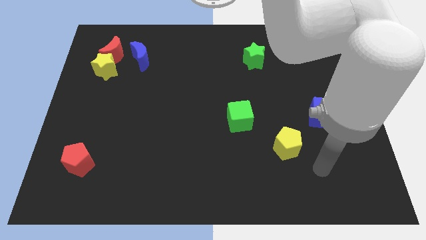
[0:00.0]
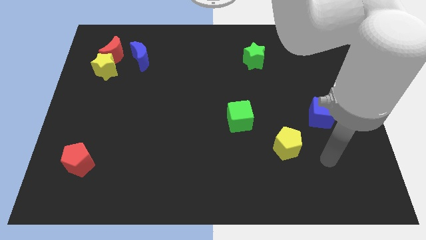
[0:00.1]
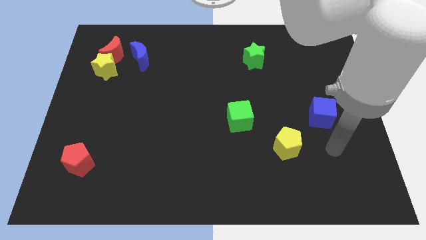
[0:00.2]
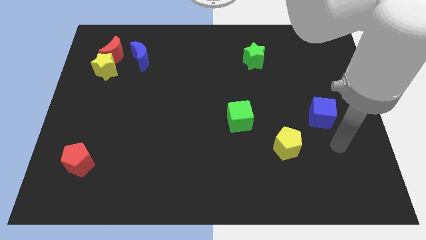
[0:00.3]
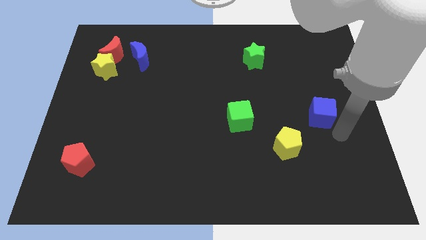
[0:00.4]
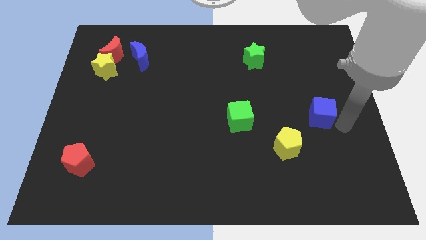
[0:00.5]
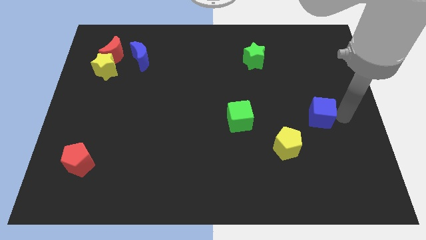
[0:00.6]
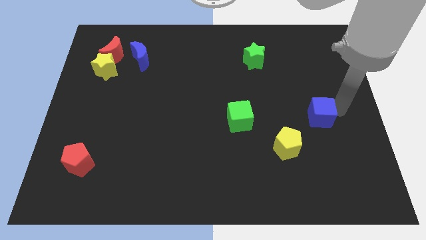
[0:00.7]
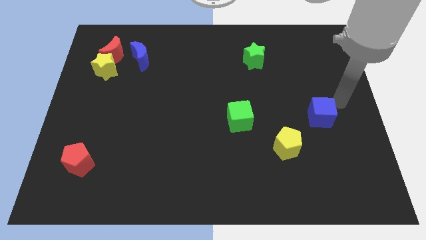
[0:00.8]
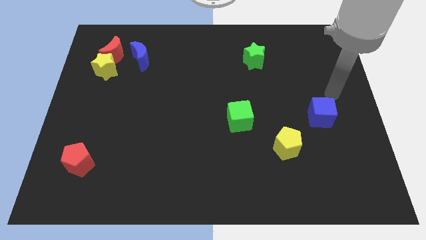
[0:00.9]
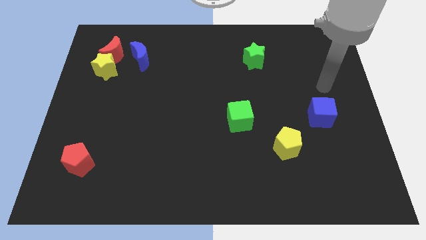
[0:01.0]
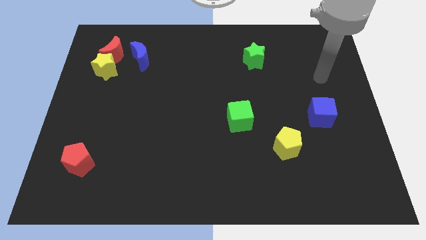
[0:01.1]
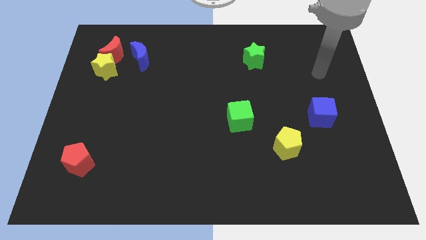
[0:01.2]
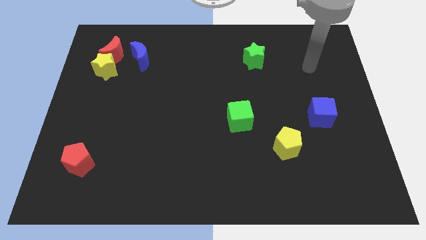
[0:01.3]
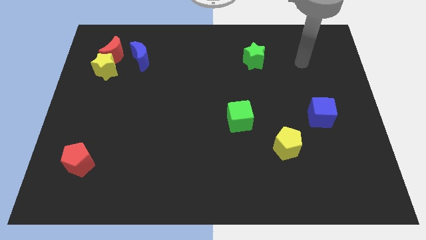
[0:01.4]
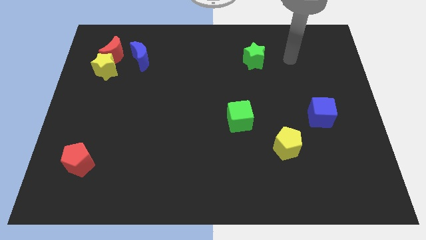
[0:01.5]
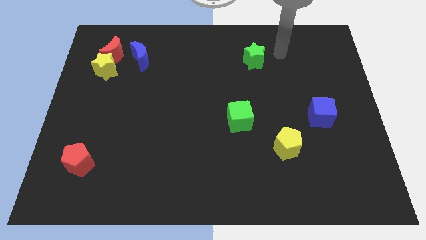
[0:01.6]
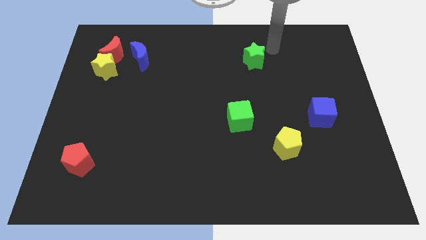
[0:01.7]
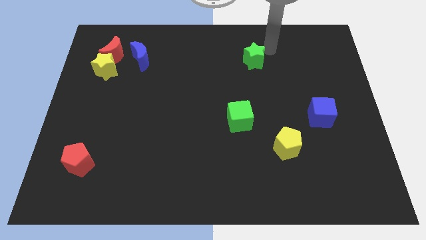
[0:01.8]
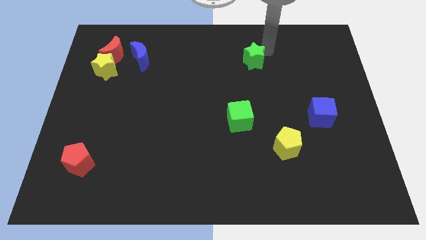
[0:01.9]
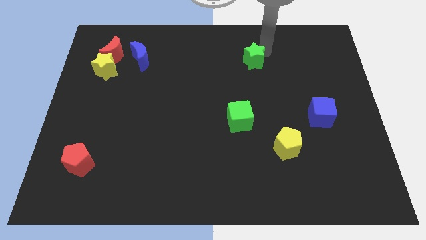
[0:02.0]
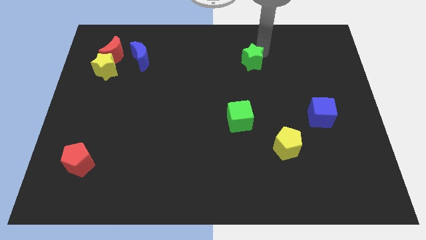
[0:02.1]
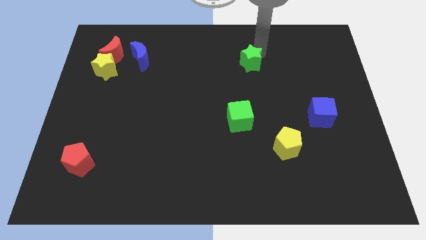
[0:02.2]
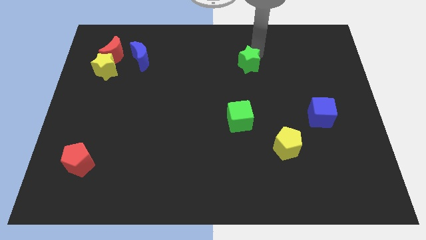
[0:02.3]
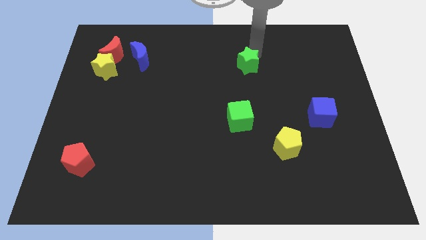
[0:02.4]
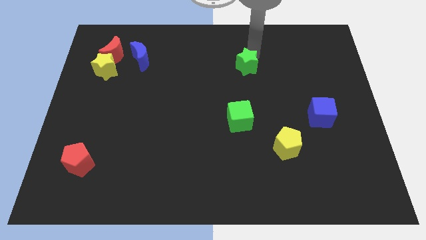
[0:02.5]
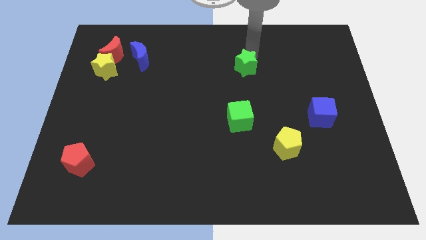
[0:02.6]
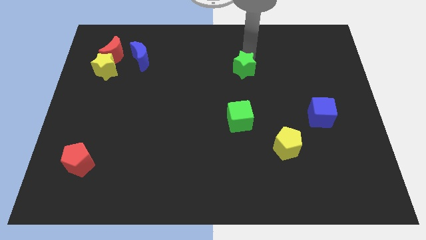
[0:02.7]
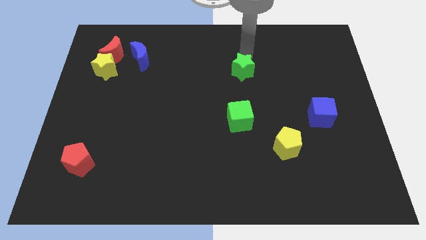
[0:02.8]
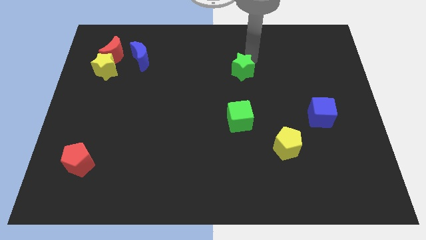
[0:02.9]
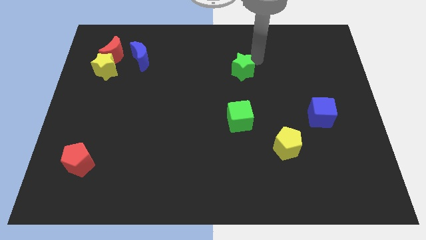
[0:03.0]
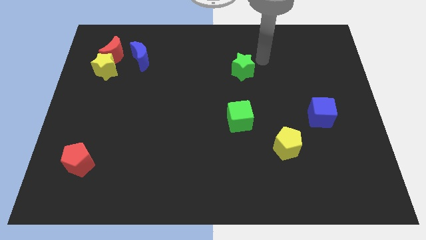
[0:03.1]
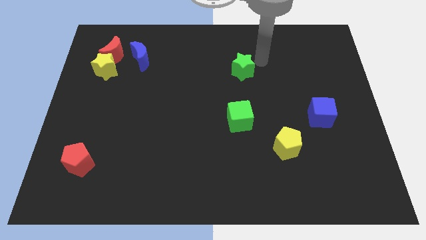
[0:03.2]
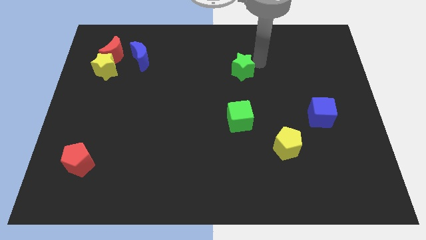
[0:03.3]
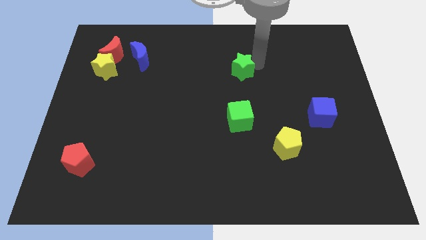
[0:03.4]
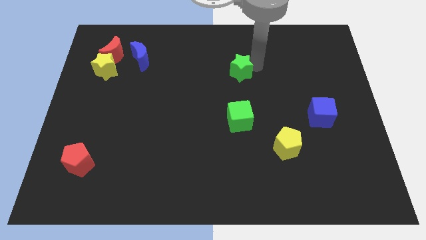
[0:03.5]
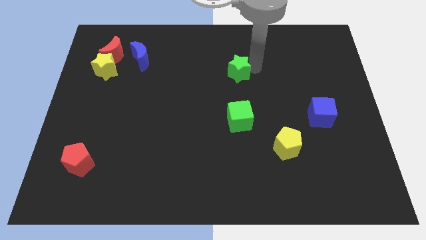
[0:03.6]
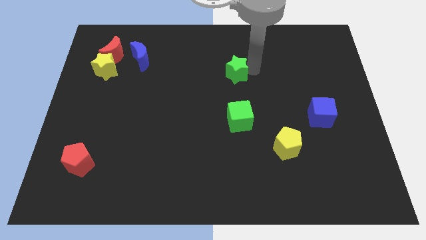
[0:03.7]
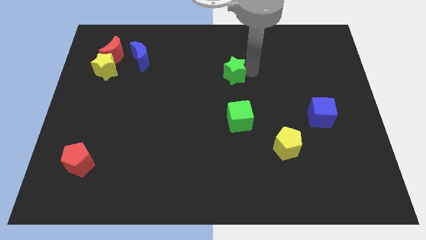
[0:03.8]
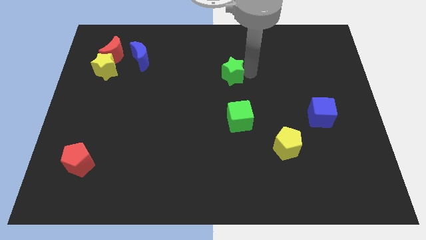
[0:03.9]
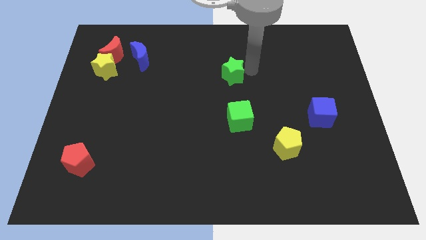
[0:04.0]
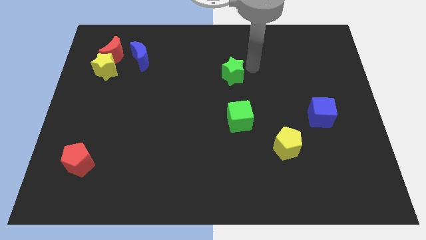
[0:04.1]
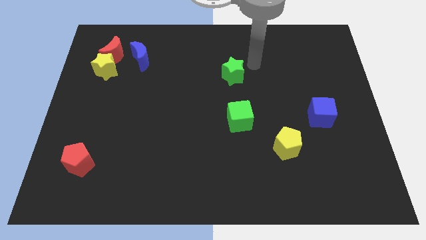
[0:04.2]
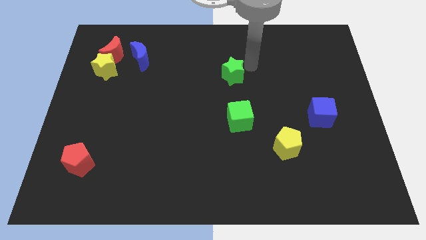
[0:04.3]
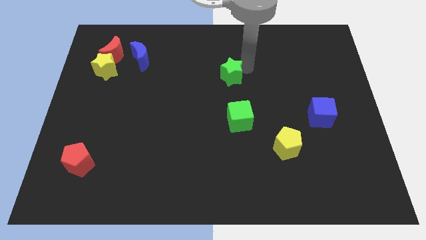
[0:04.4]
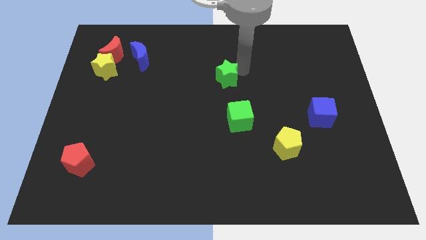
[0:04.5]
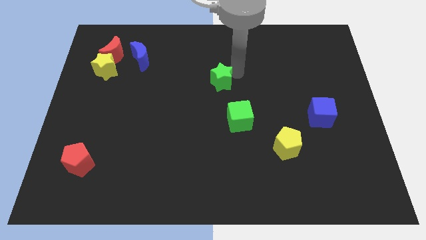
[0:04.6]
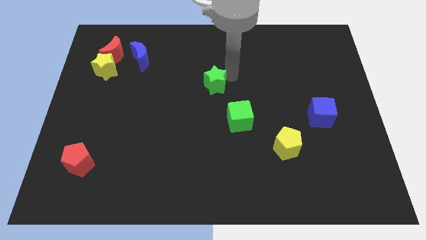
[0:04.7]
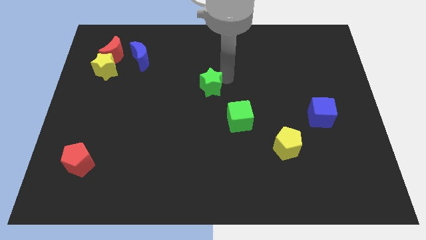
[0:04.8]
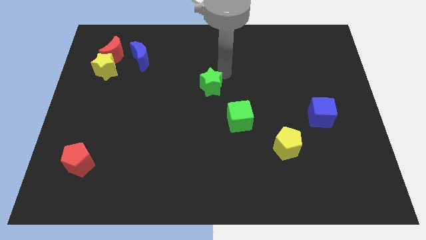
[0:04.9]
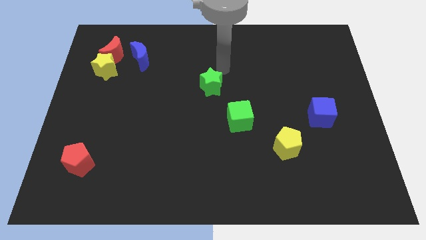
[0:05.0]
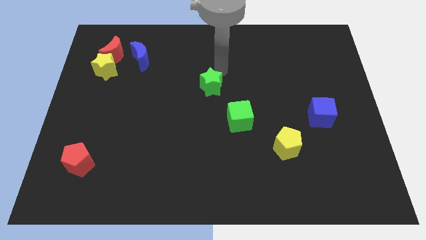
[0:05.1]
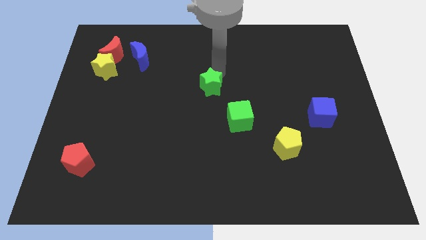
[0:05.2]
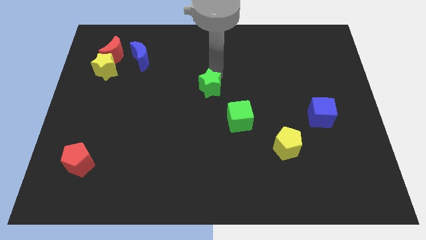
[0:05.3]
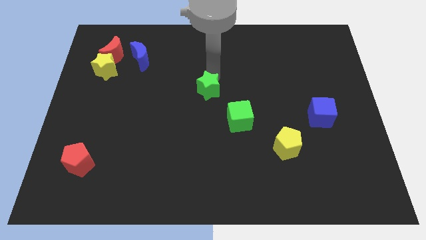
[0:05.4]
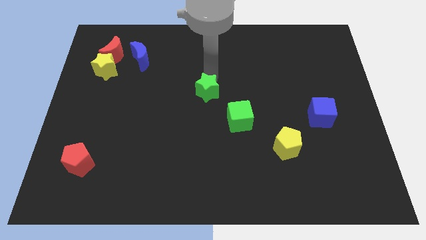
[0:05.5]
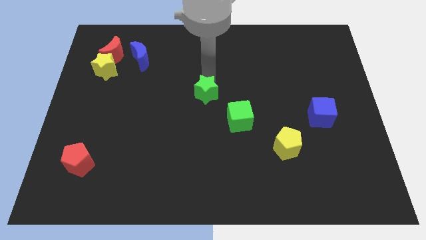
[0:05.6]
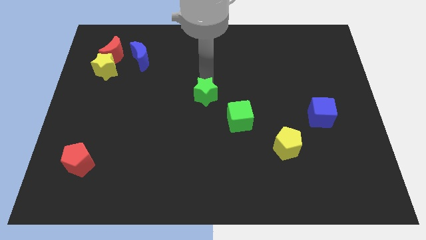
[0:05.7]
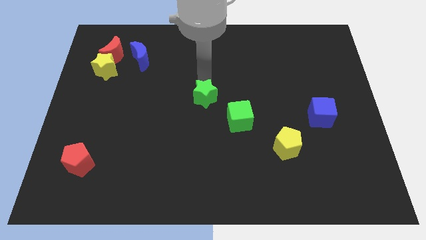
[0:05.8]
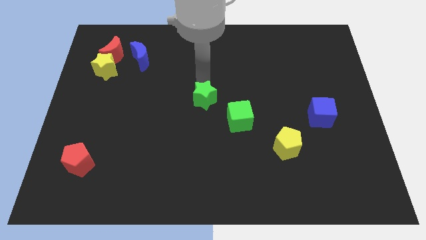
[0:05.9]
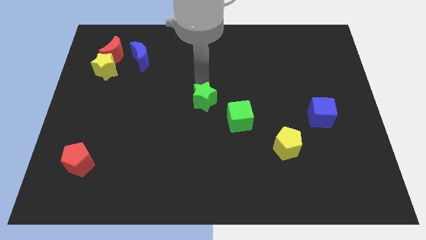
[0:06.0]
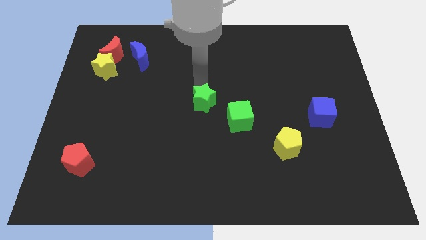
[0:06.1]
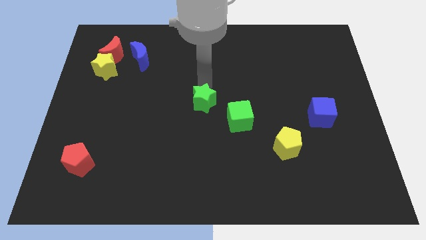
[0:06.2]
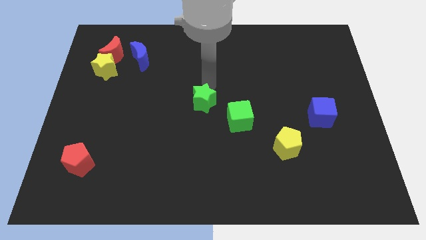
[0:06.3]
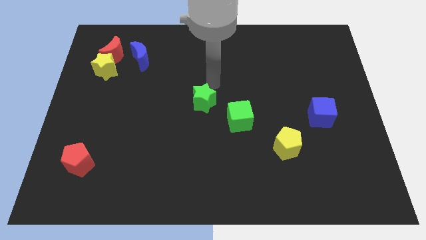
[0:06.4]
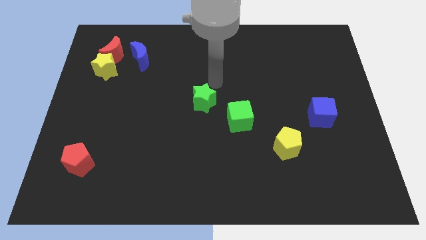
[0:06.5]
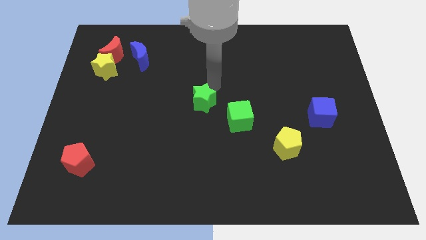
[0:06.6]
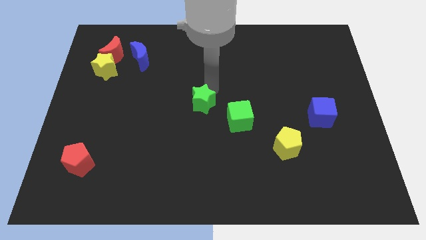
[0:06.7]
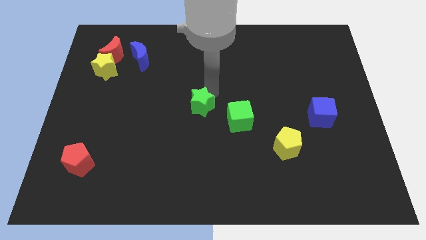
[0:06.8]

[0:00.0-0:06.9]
push the green star diagonally downwards and to the left

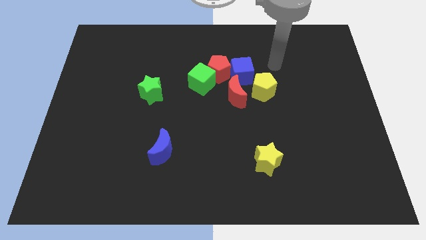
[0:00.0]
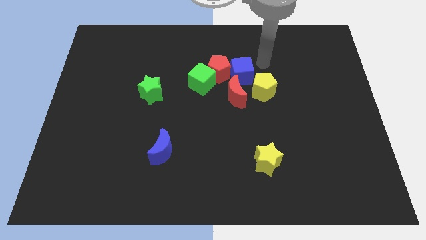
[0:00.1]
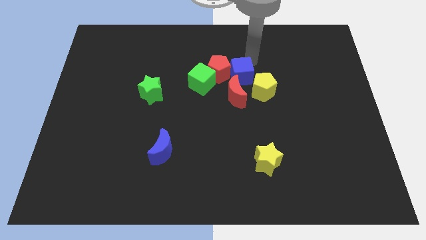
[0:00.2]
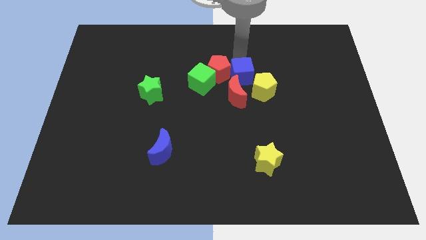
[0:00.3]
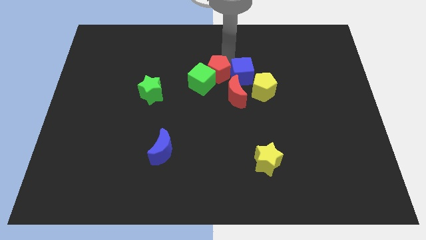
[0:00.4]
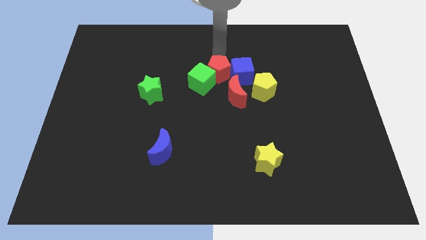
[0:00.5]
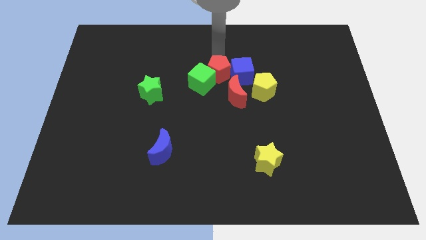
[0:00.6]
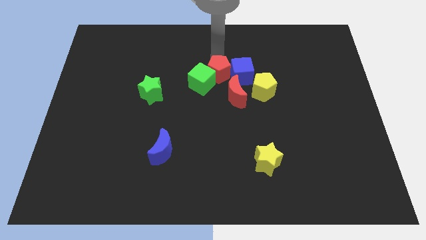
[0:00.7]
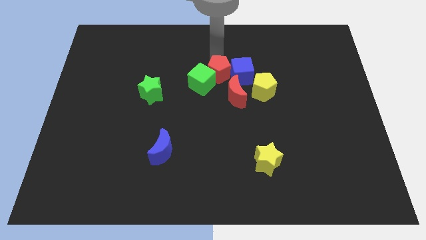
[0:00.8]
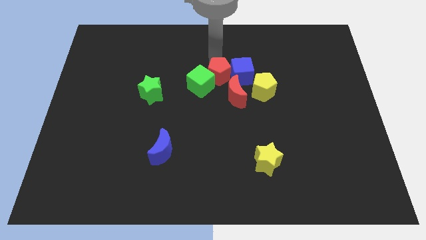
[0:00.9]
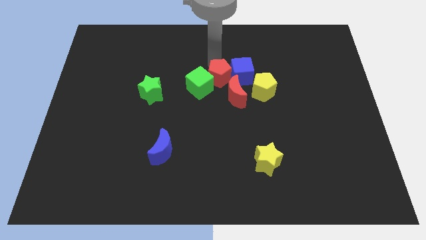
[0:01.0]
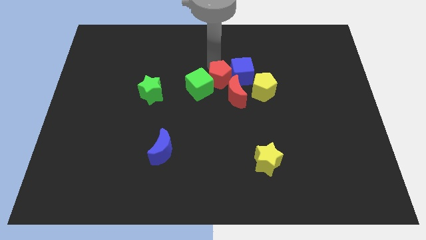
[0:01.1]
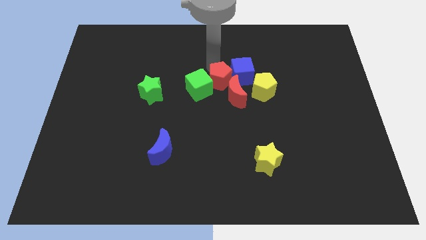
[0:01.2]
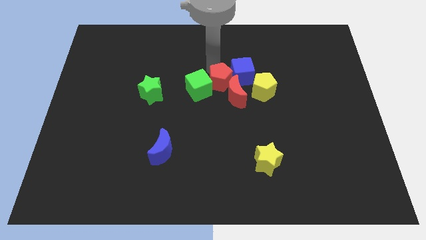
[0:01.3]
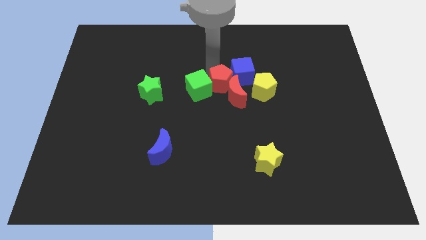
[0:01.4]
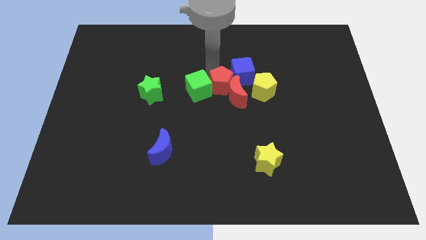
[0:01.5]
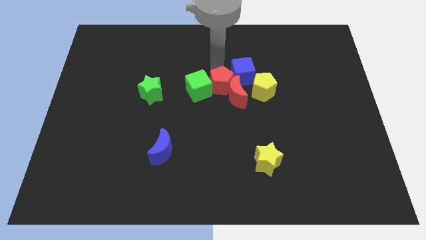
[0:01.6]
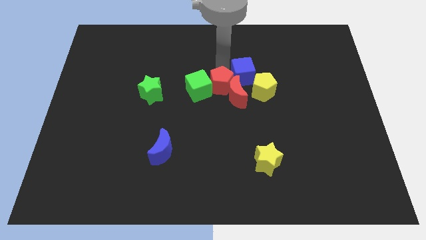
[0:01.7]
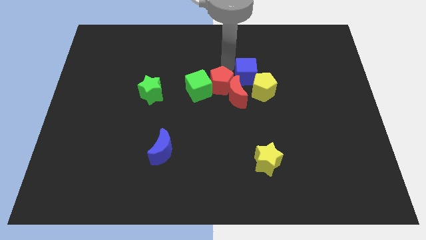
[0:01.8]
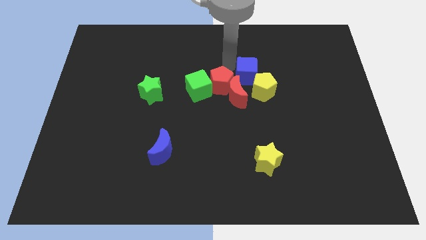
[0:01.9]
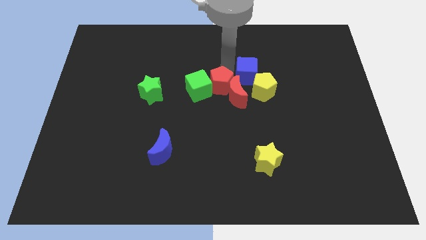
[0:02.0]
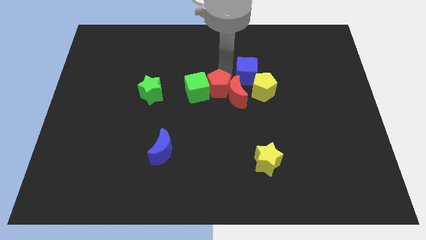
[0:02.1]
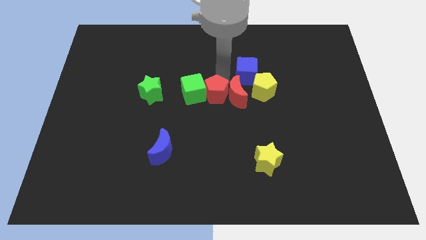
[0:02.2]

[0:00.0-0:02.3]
slightly slide the red pentagon downwards
